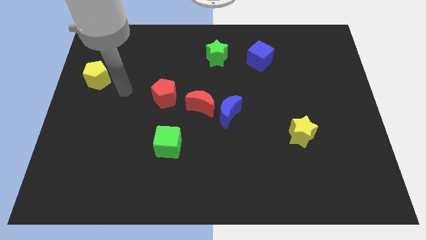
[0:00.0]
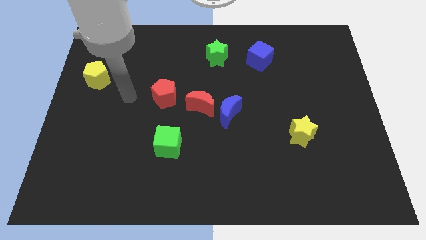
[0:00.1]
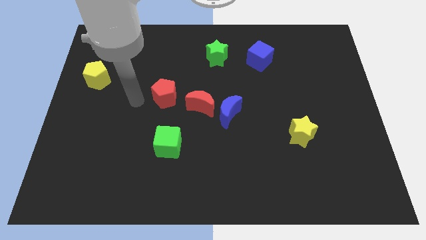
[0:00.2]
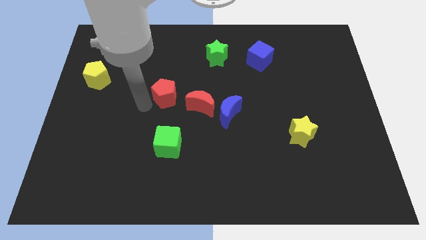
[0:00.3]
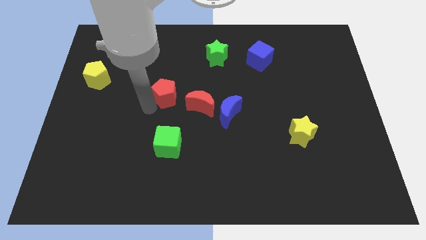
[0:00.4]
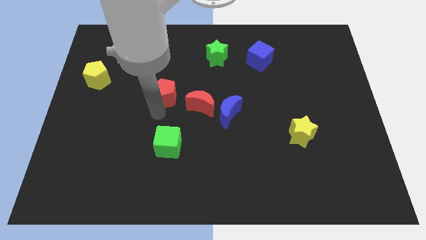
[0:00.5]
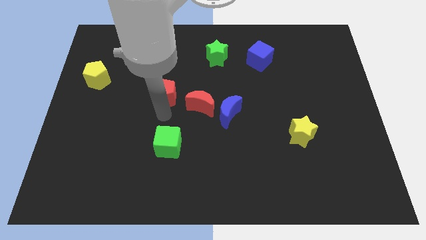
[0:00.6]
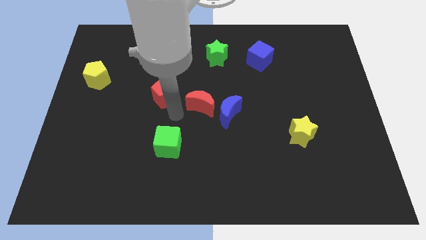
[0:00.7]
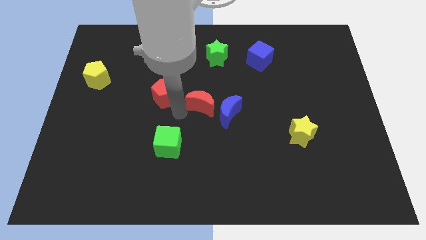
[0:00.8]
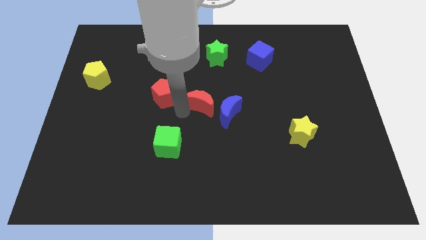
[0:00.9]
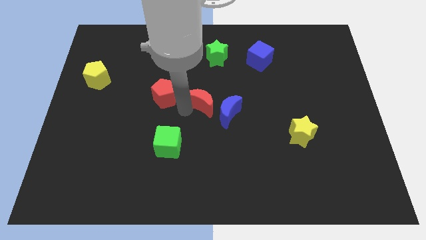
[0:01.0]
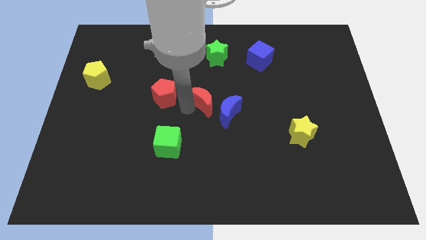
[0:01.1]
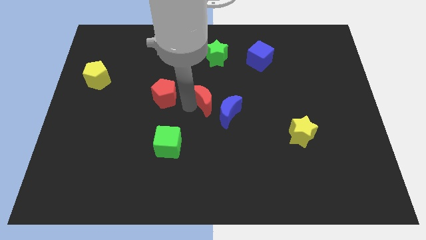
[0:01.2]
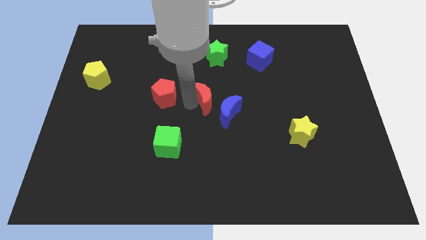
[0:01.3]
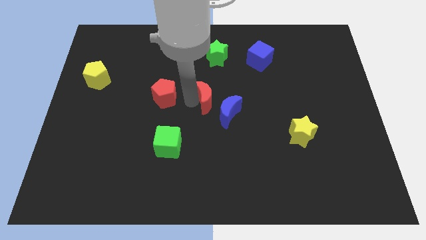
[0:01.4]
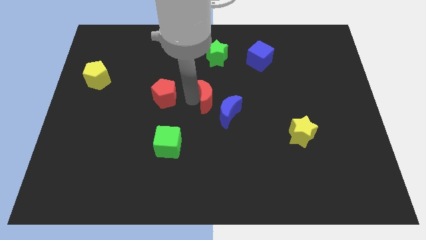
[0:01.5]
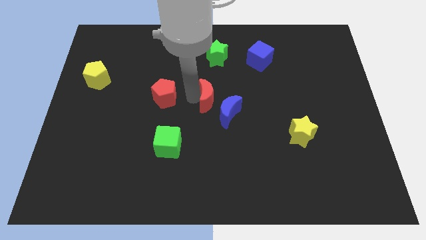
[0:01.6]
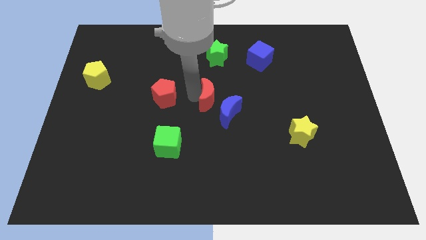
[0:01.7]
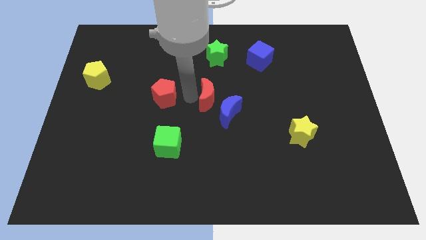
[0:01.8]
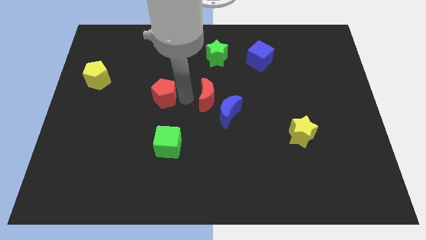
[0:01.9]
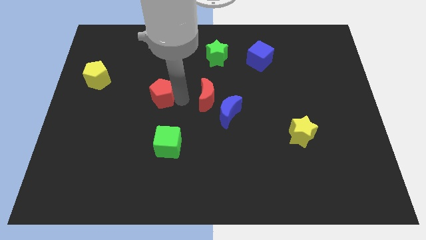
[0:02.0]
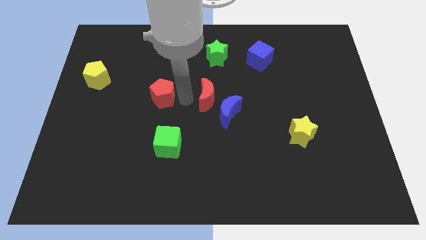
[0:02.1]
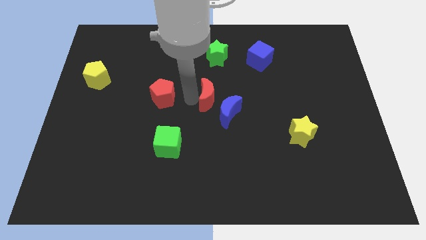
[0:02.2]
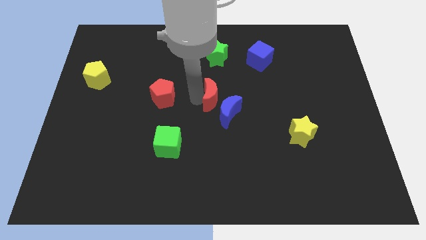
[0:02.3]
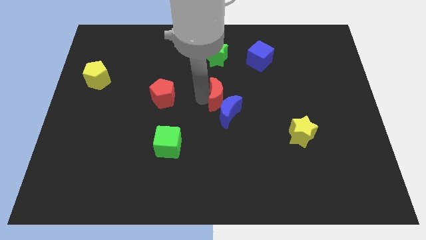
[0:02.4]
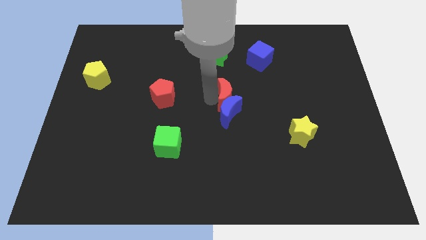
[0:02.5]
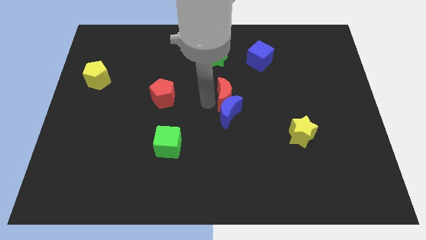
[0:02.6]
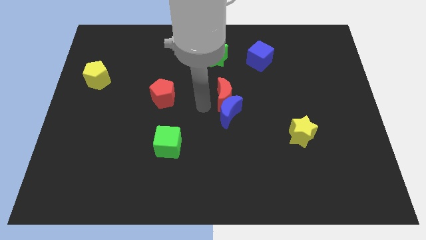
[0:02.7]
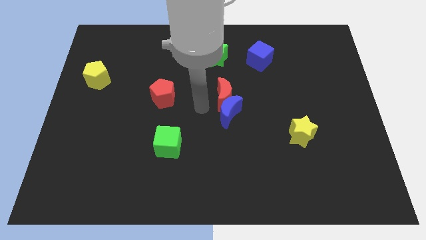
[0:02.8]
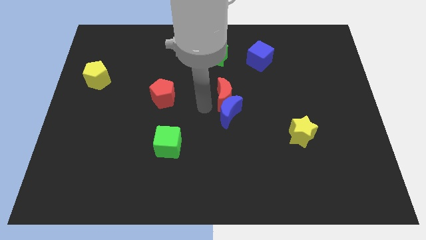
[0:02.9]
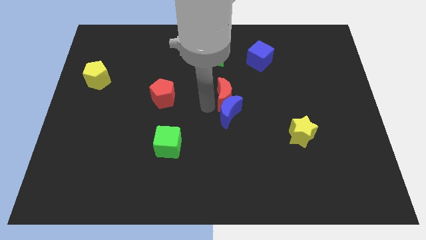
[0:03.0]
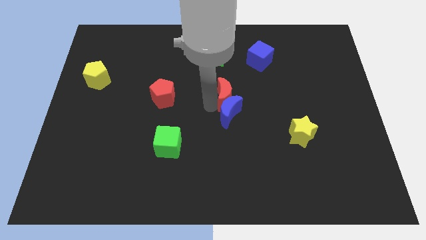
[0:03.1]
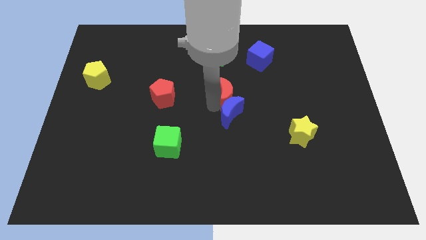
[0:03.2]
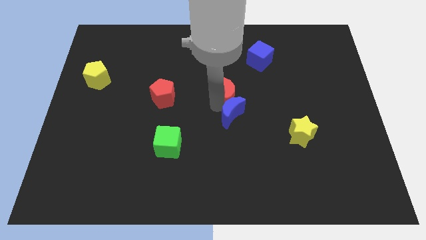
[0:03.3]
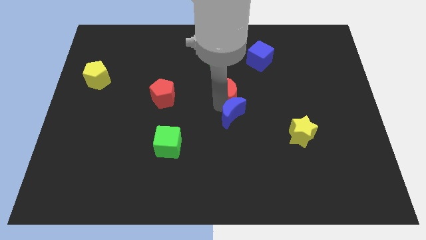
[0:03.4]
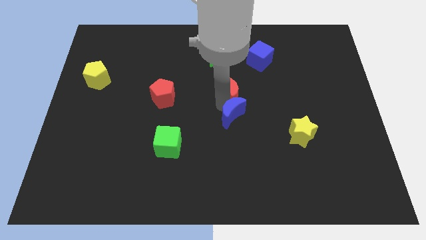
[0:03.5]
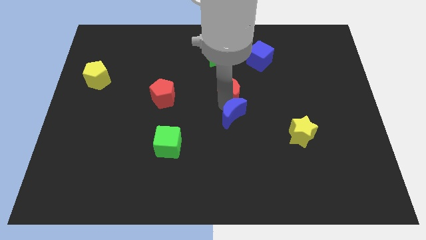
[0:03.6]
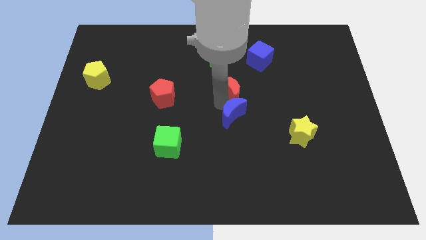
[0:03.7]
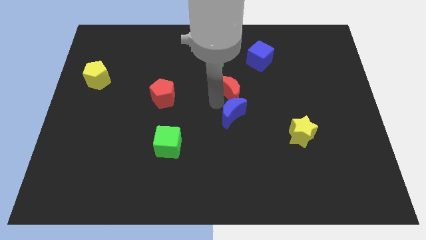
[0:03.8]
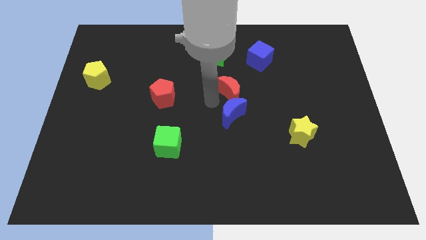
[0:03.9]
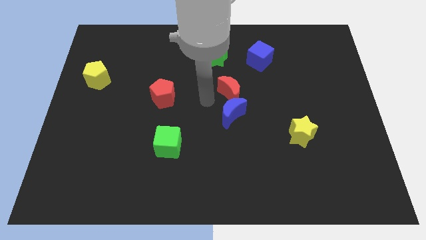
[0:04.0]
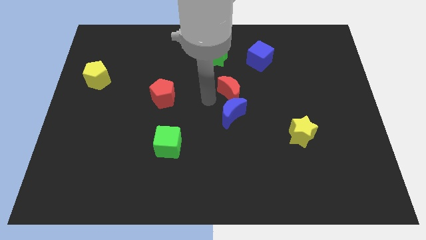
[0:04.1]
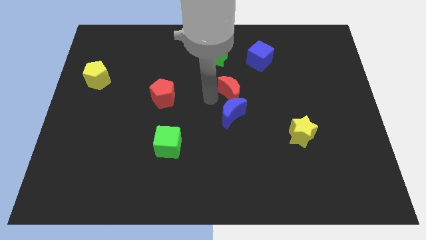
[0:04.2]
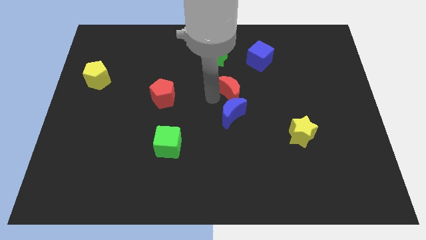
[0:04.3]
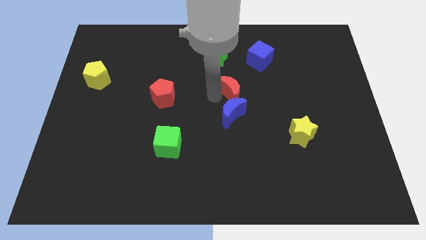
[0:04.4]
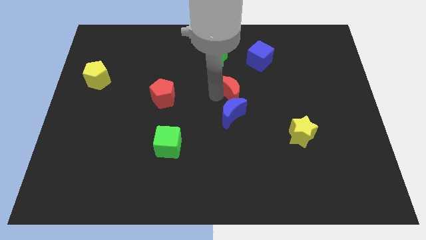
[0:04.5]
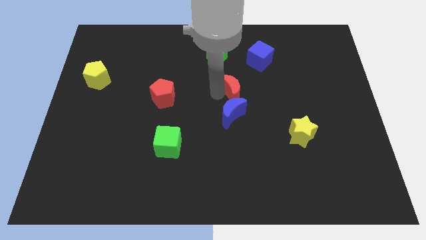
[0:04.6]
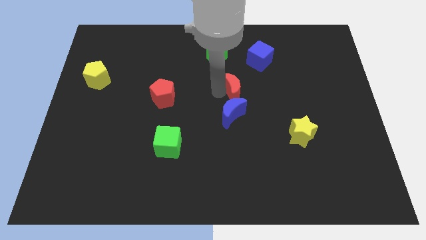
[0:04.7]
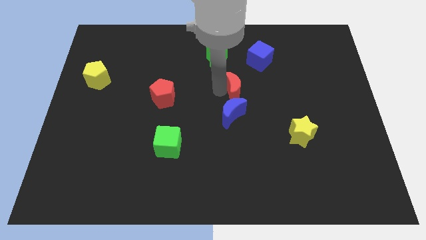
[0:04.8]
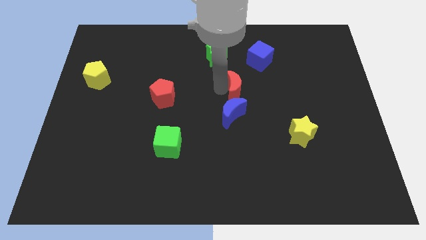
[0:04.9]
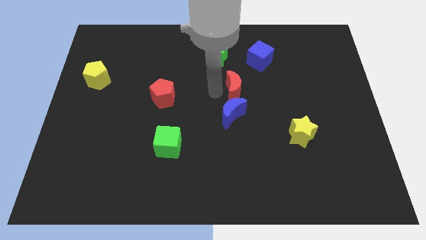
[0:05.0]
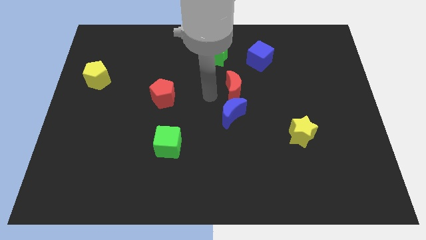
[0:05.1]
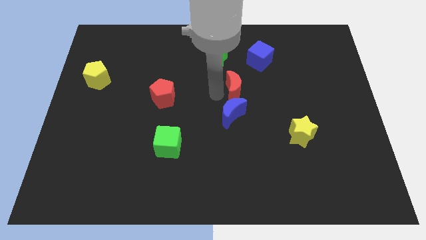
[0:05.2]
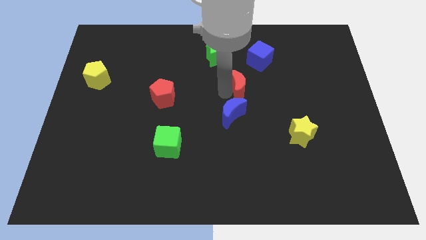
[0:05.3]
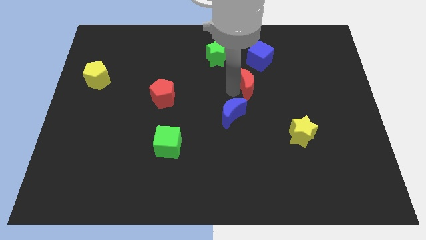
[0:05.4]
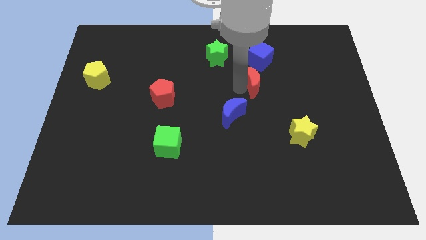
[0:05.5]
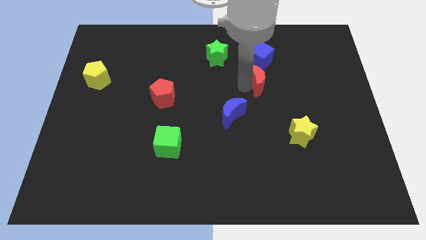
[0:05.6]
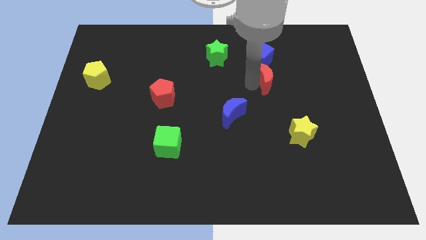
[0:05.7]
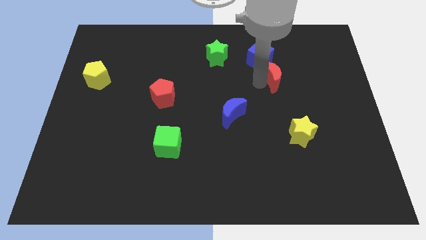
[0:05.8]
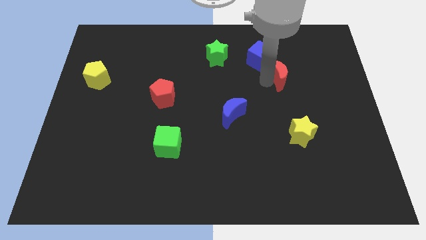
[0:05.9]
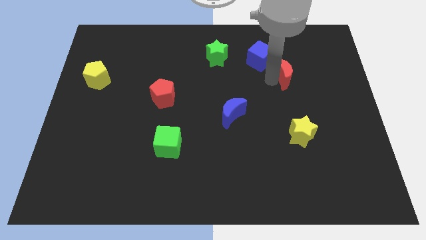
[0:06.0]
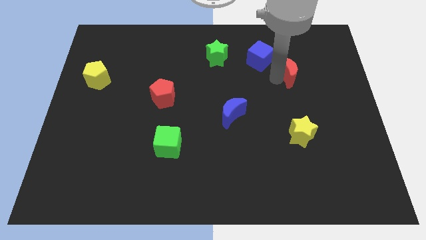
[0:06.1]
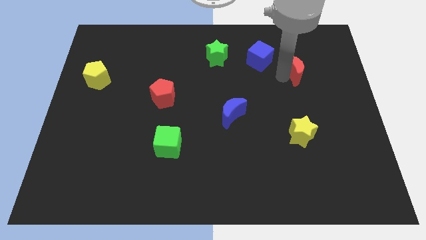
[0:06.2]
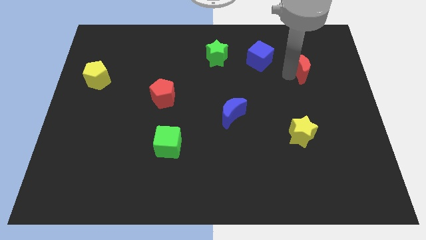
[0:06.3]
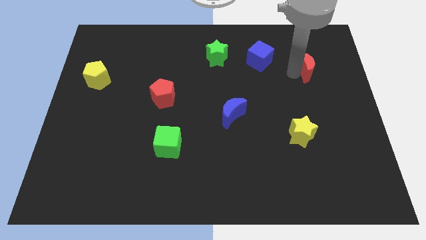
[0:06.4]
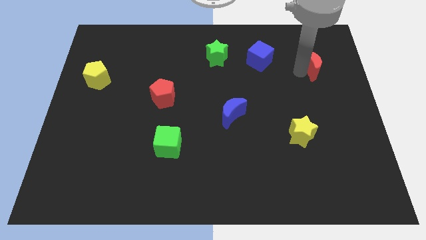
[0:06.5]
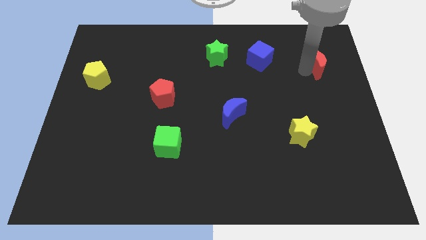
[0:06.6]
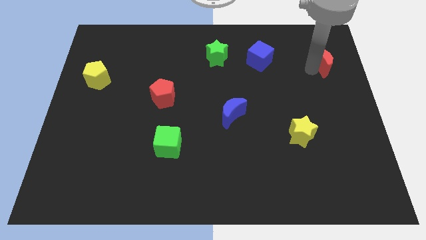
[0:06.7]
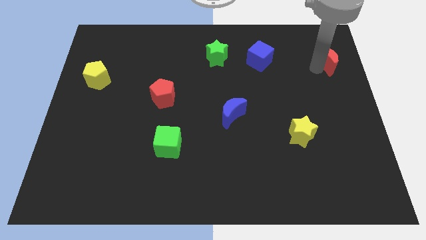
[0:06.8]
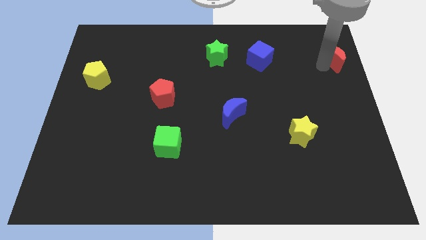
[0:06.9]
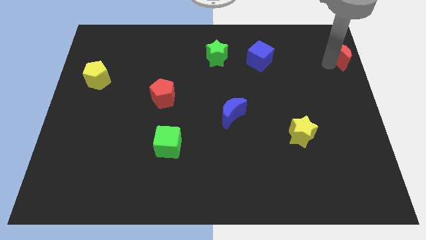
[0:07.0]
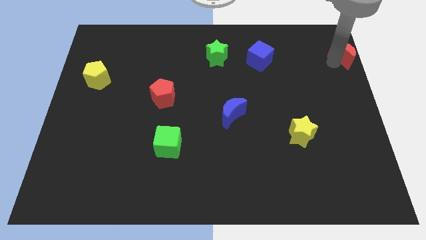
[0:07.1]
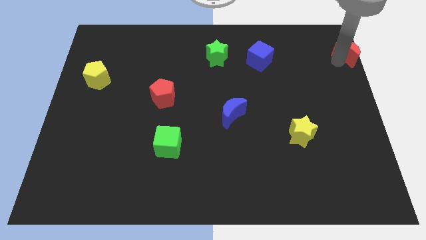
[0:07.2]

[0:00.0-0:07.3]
push the red moon to the top right
